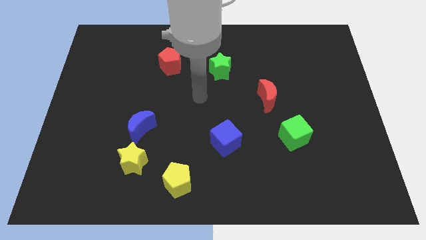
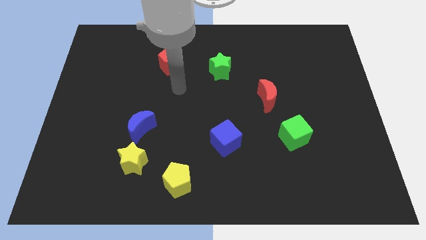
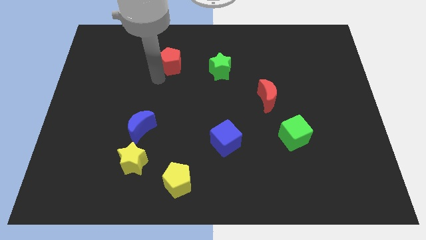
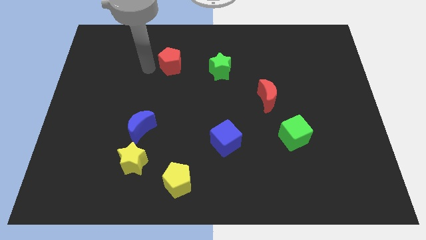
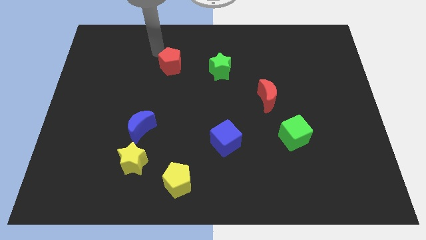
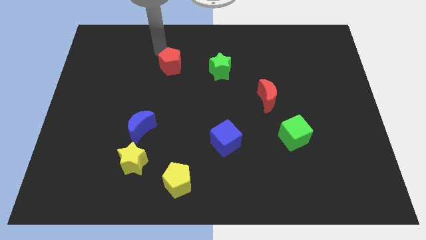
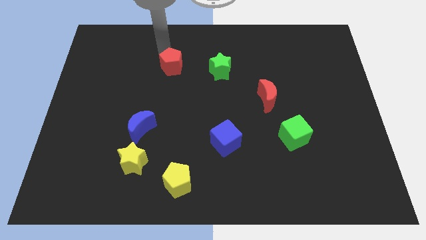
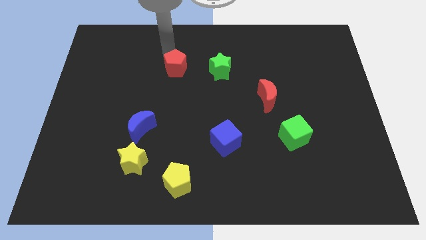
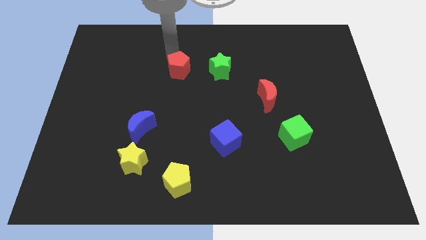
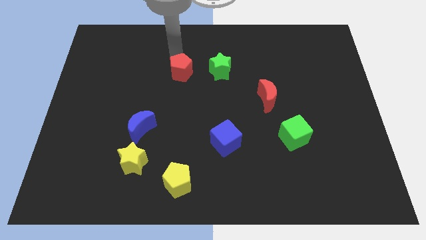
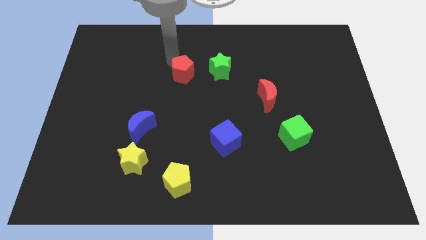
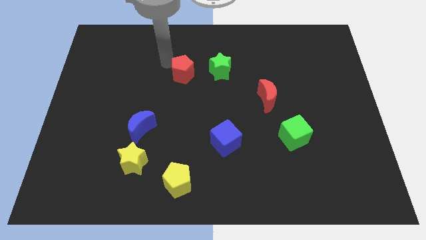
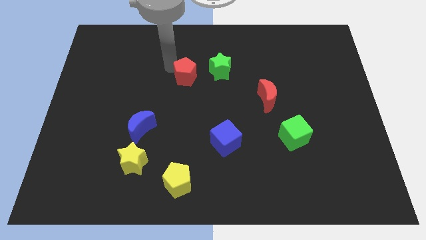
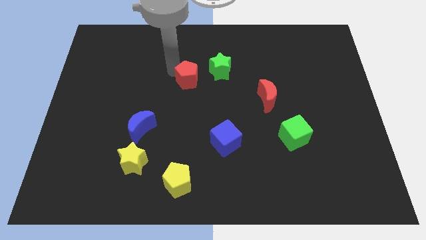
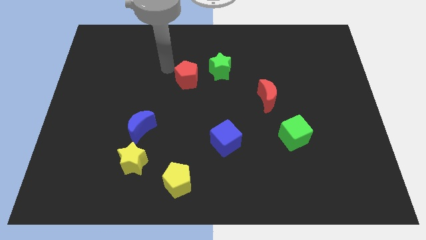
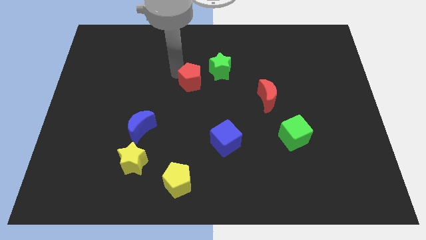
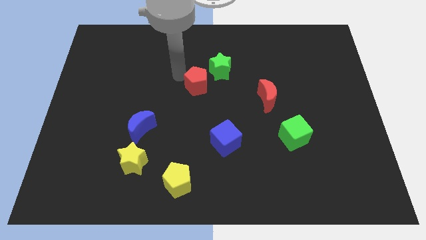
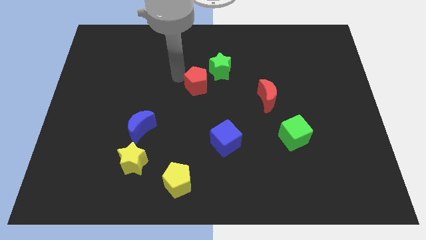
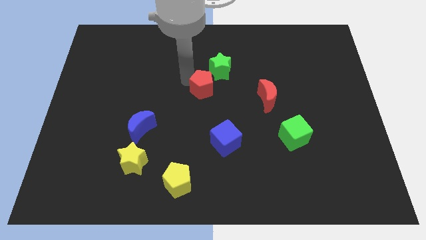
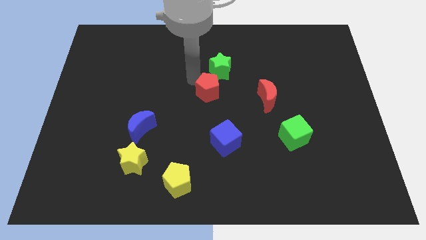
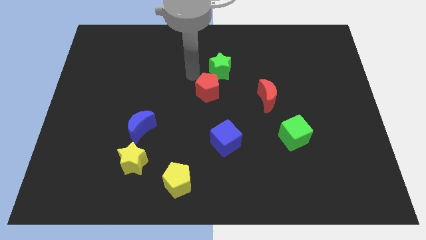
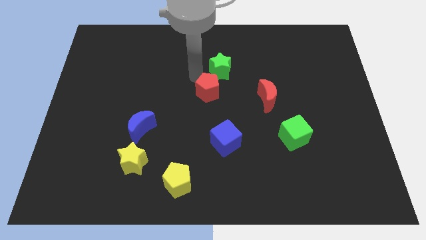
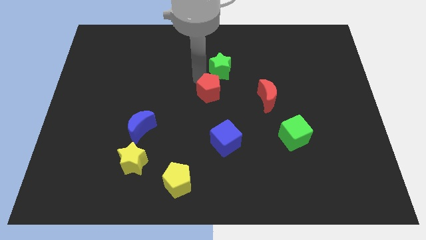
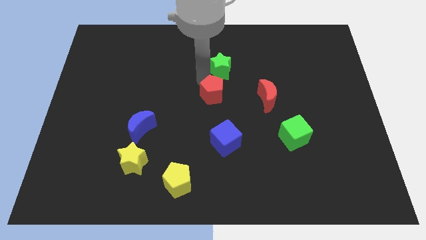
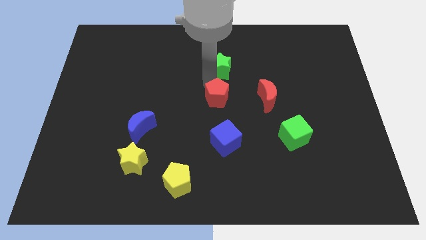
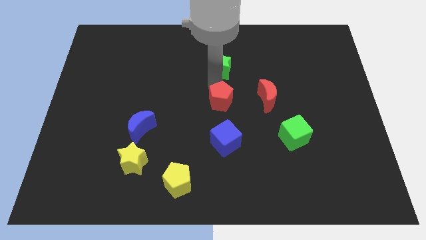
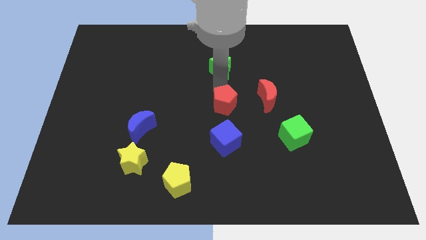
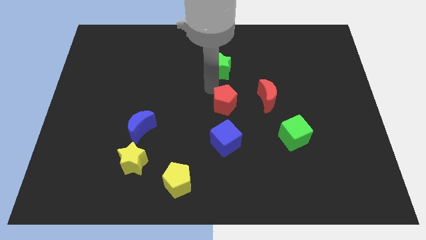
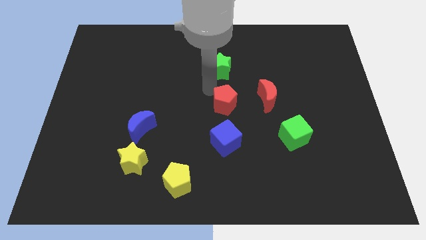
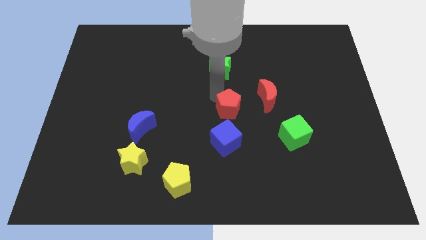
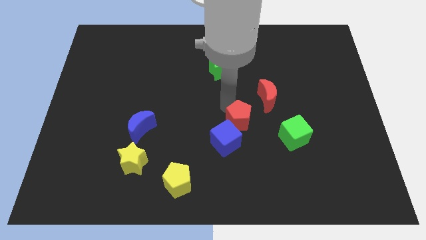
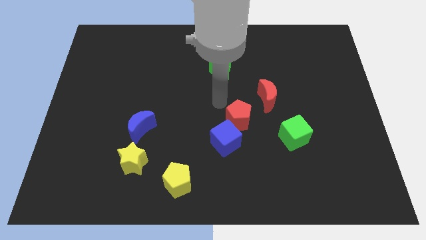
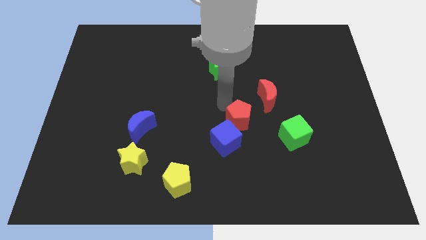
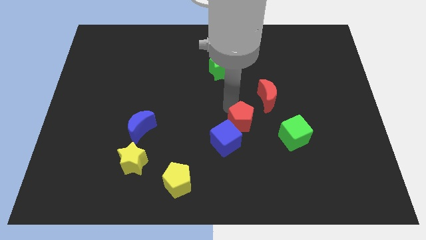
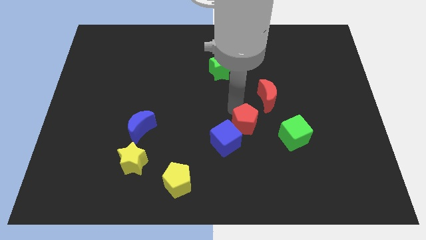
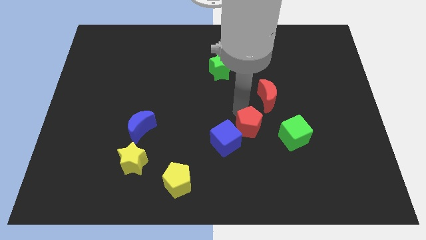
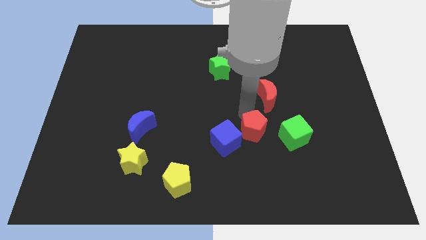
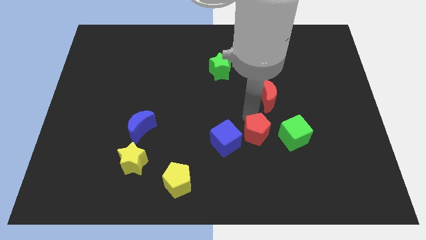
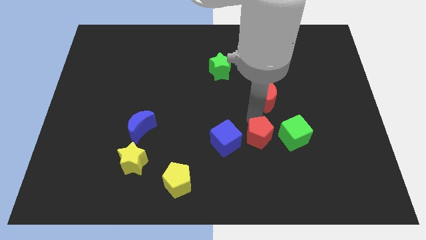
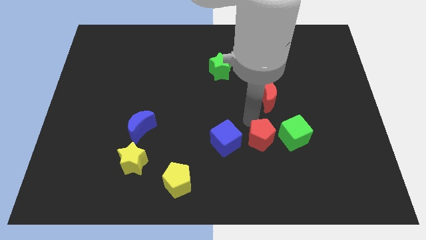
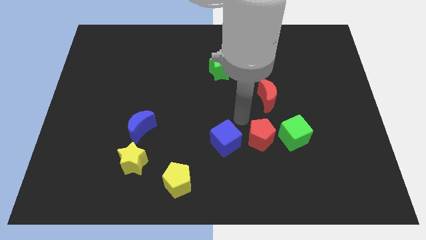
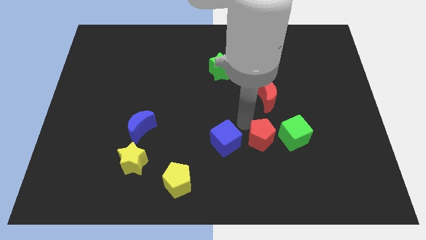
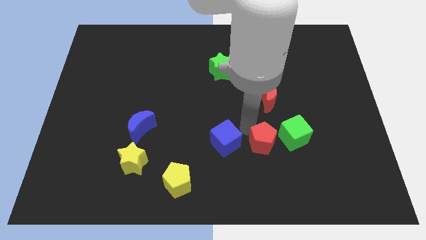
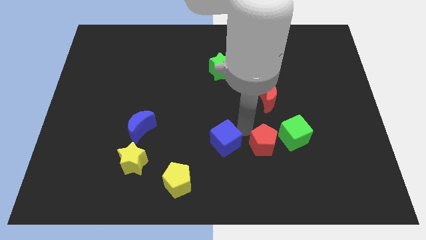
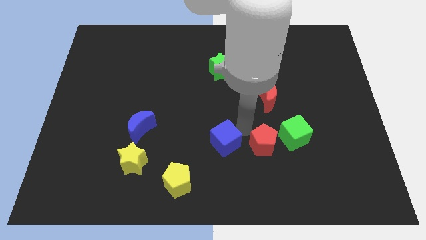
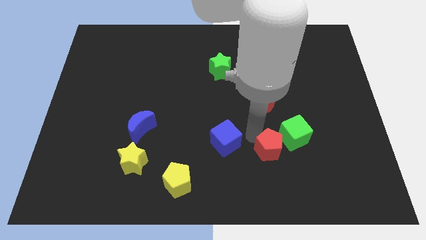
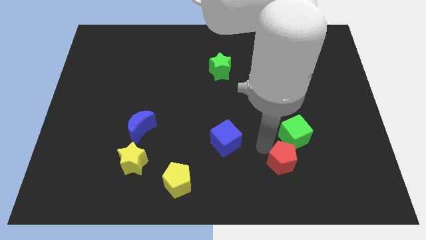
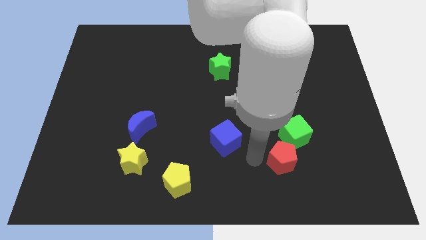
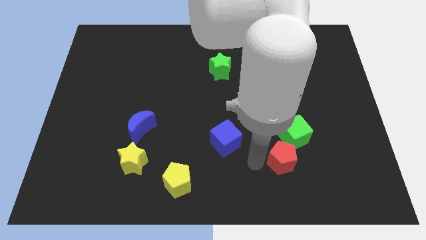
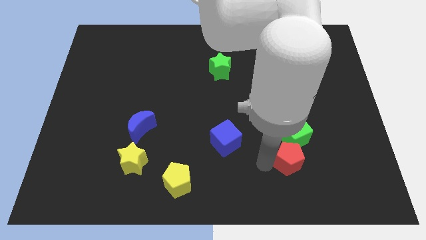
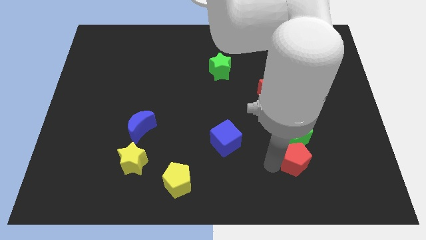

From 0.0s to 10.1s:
push the red pentagon to the bottom right of the green cube

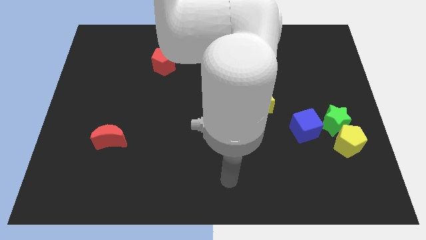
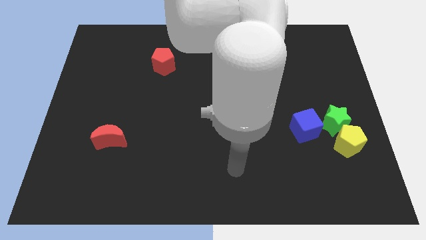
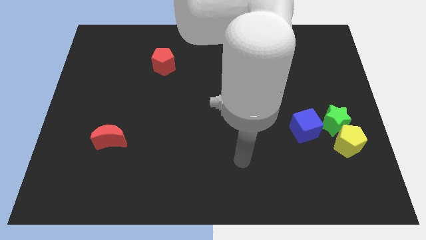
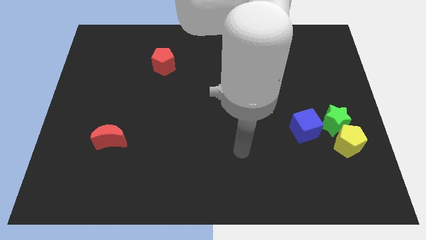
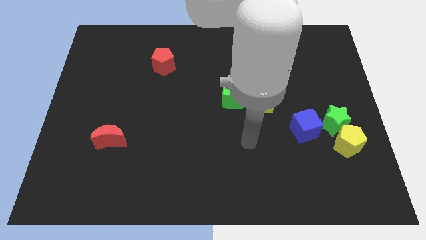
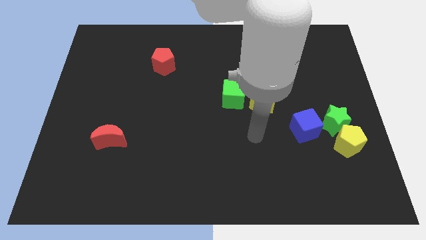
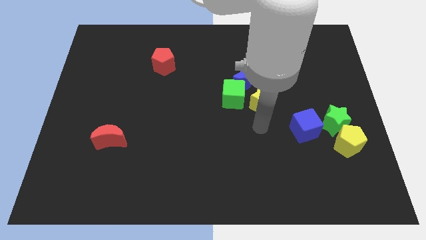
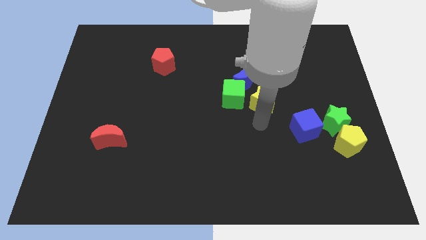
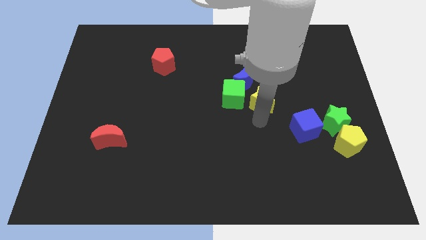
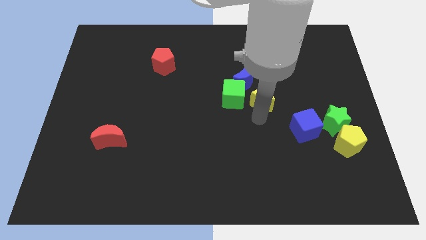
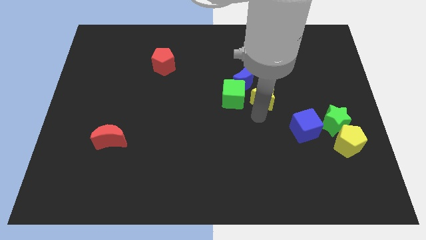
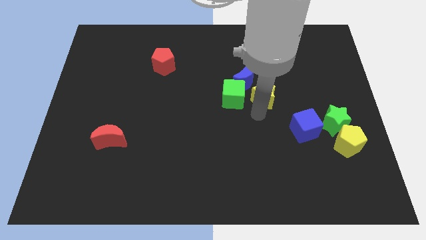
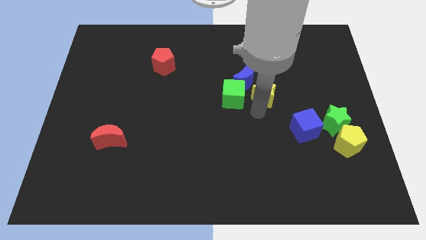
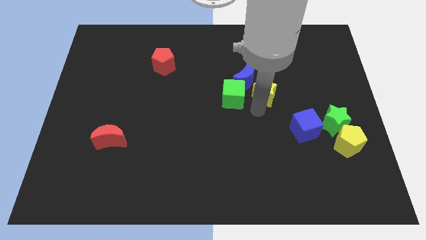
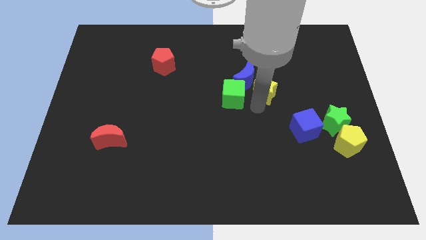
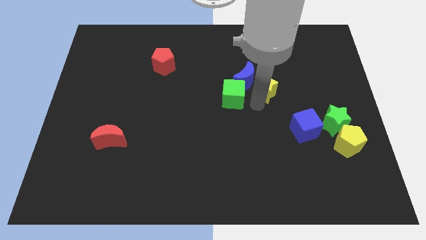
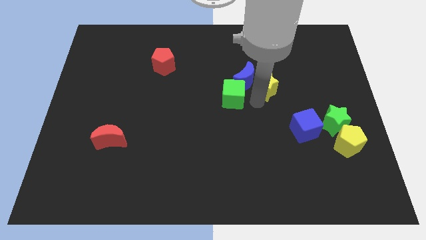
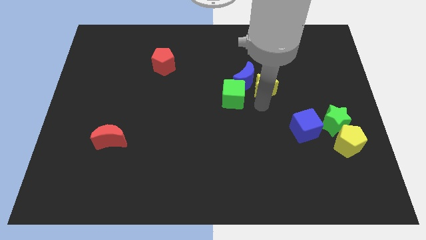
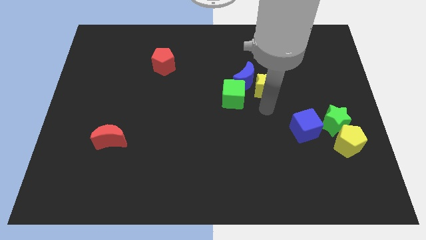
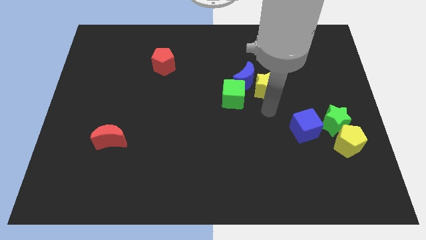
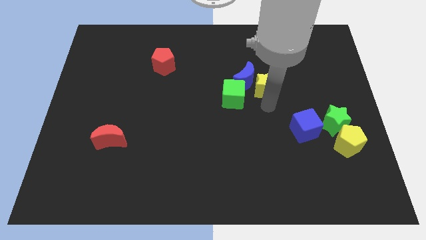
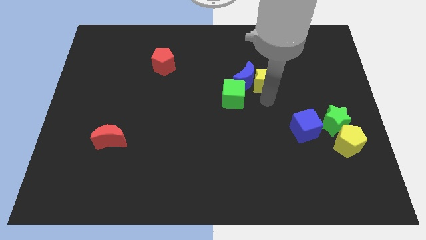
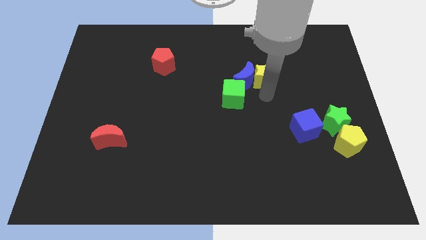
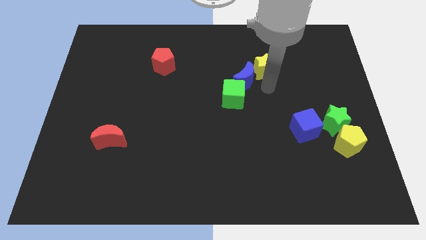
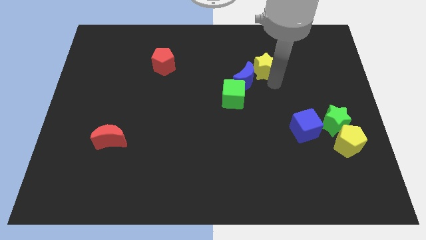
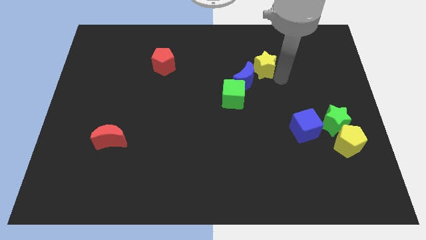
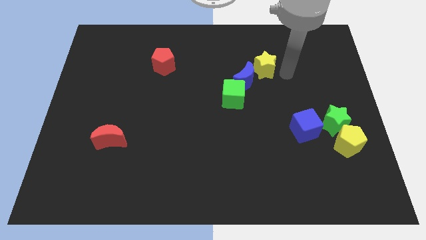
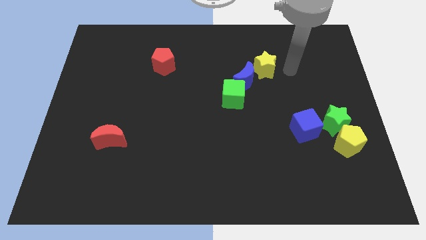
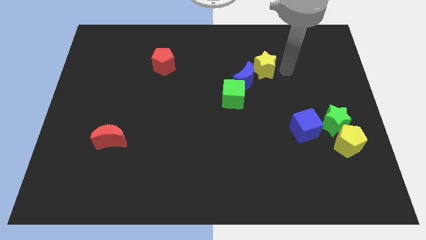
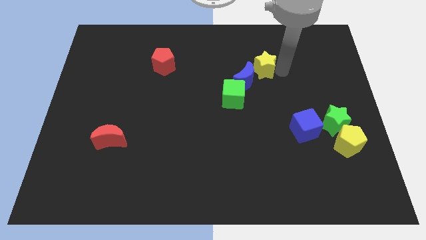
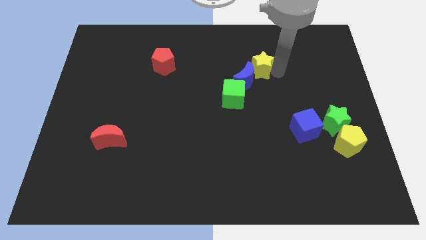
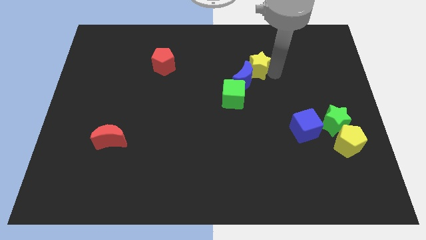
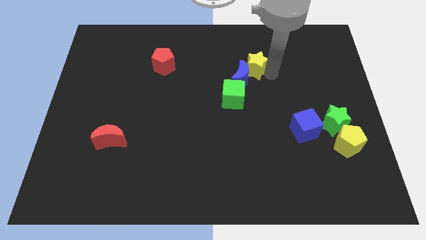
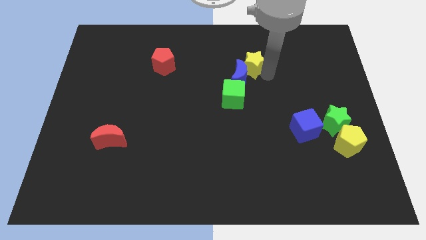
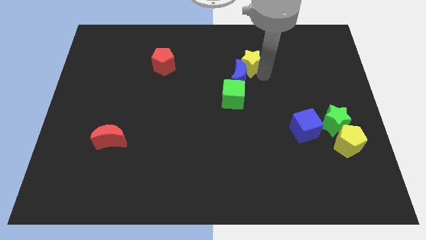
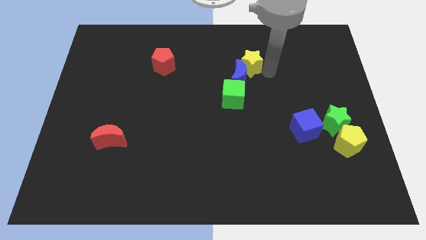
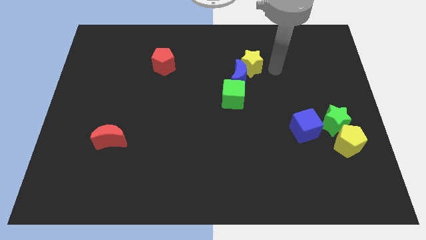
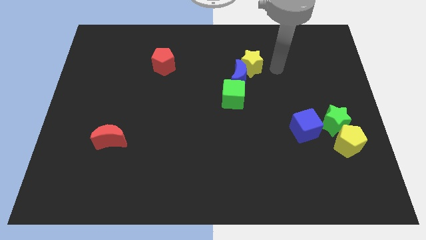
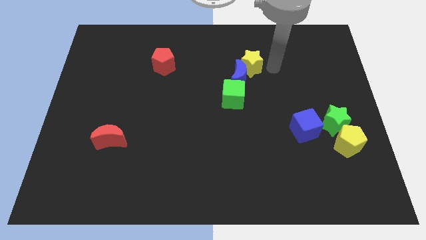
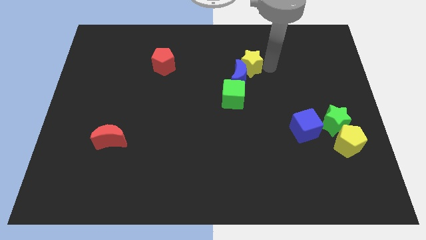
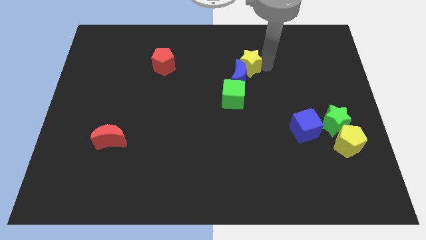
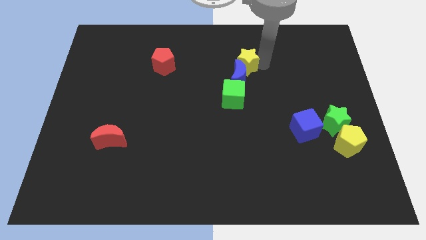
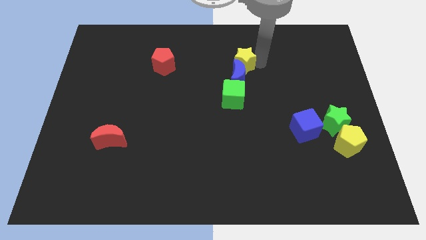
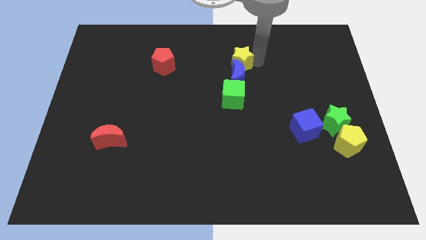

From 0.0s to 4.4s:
push the yellow star to the top left of the blue moon
